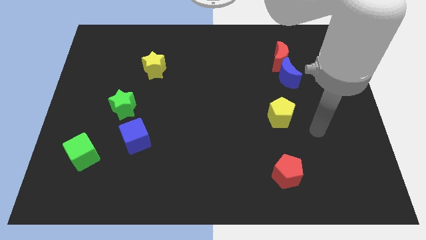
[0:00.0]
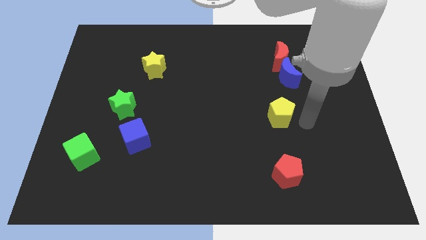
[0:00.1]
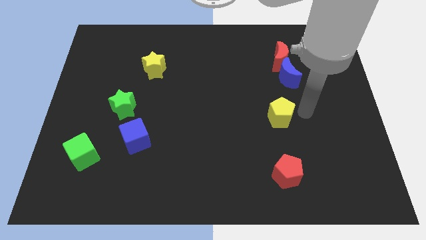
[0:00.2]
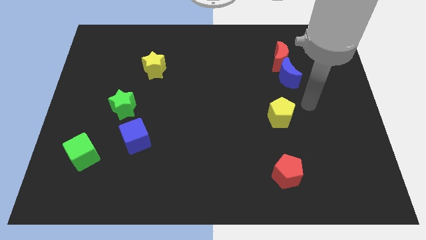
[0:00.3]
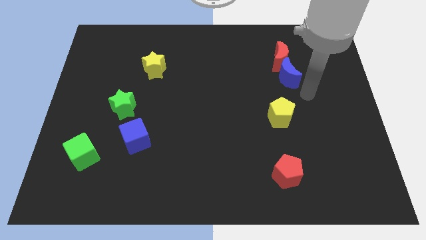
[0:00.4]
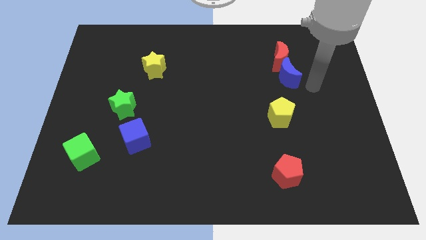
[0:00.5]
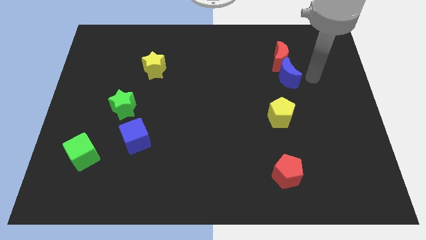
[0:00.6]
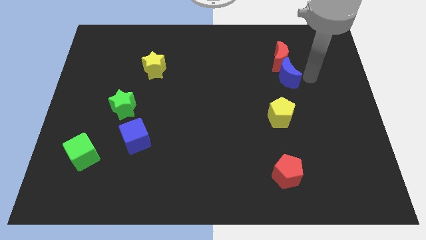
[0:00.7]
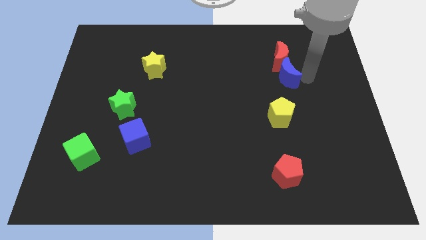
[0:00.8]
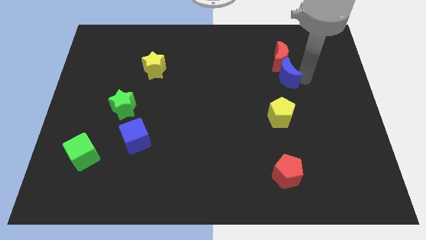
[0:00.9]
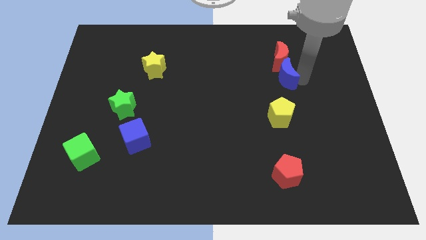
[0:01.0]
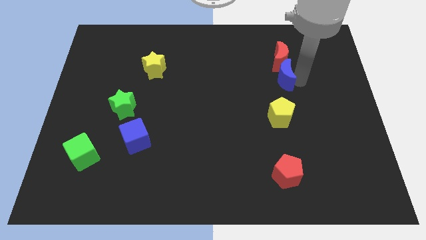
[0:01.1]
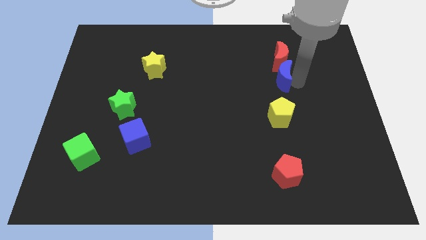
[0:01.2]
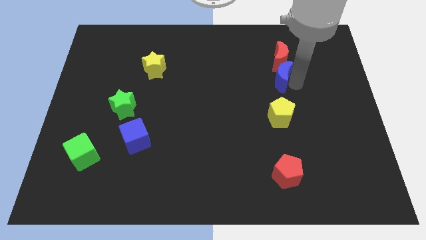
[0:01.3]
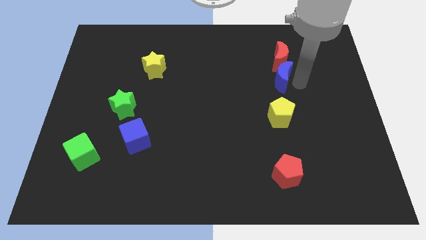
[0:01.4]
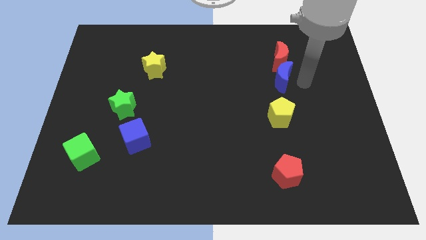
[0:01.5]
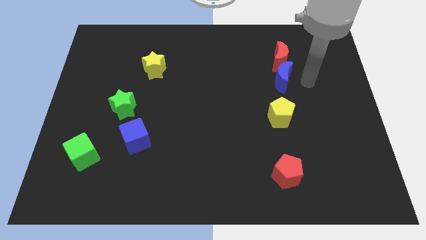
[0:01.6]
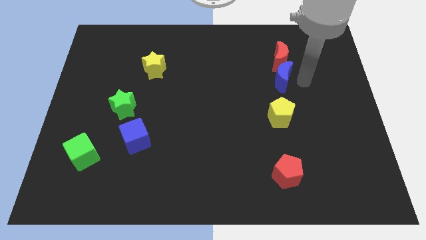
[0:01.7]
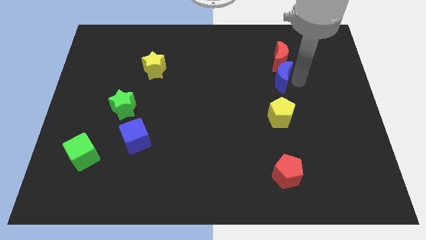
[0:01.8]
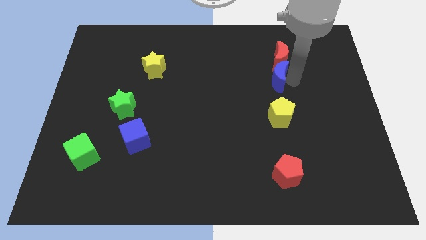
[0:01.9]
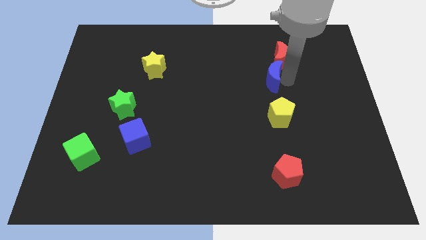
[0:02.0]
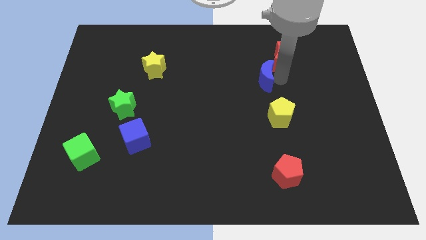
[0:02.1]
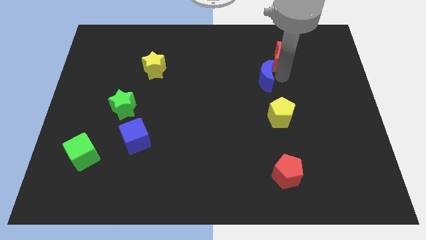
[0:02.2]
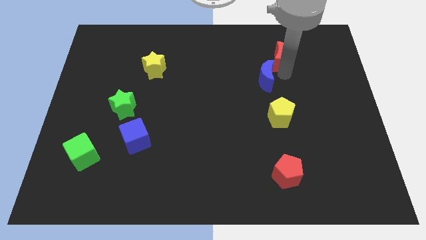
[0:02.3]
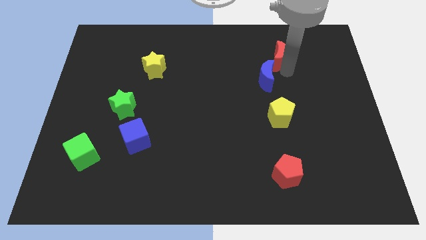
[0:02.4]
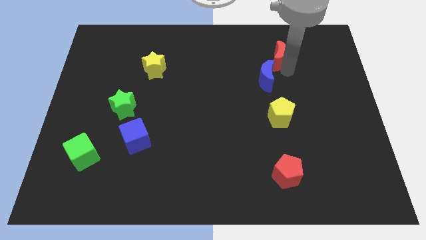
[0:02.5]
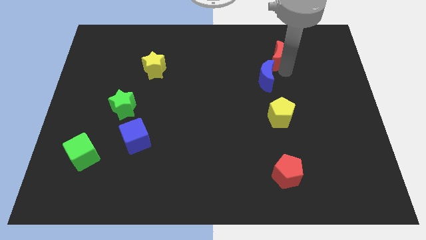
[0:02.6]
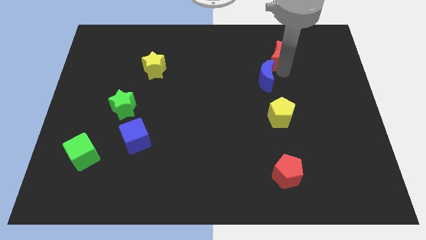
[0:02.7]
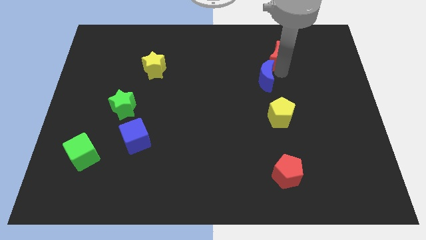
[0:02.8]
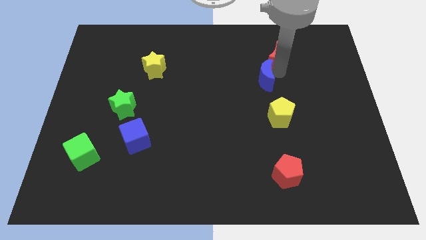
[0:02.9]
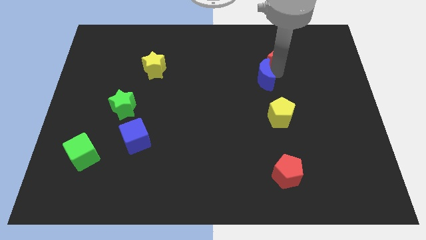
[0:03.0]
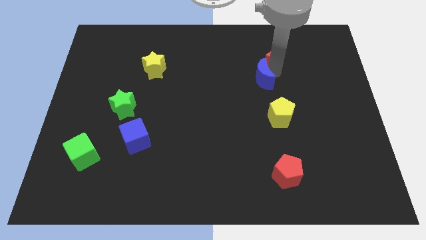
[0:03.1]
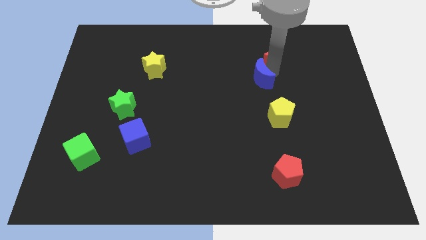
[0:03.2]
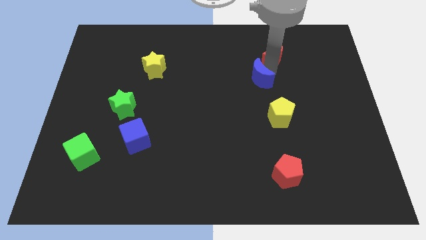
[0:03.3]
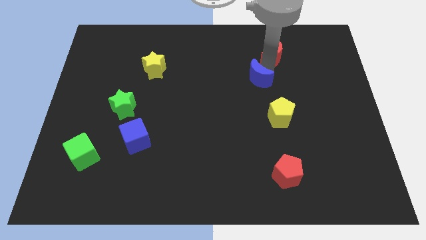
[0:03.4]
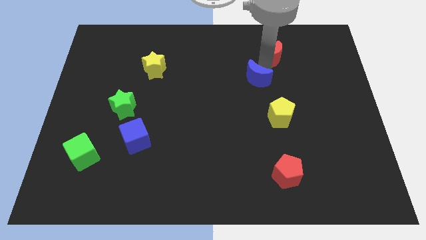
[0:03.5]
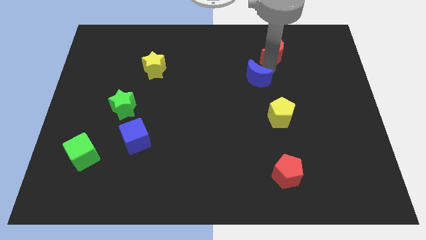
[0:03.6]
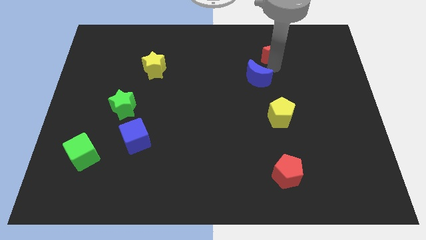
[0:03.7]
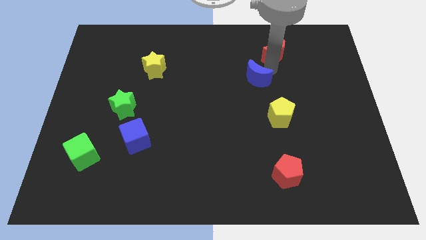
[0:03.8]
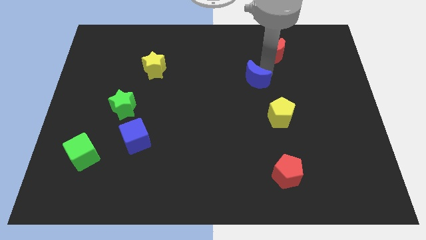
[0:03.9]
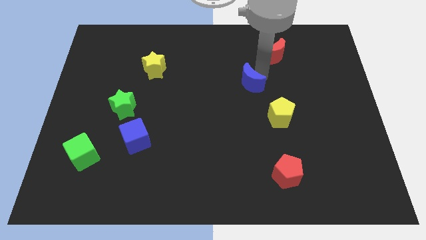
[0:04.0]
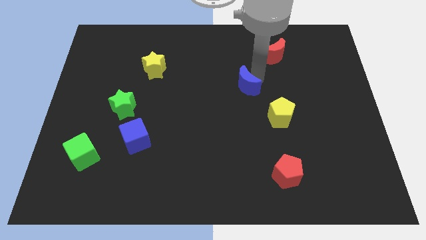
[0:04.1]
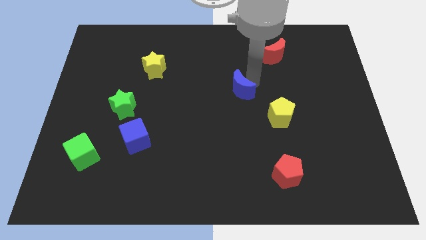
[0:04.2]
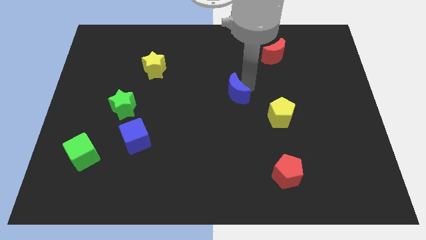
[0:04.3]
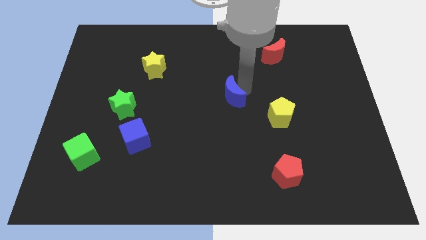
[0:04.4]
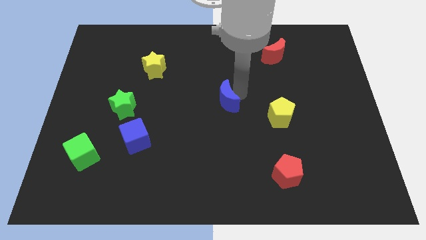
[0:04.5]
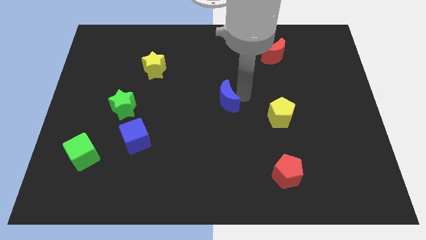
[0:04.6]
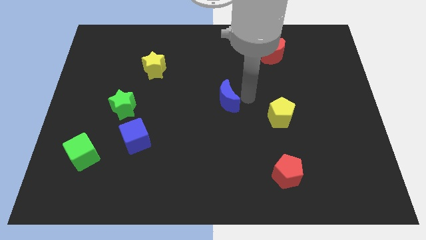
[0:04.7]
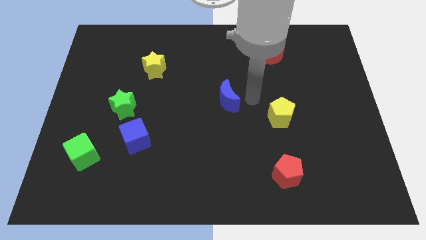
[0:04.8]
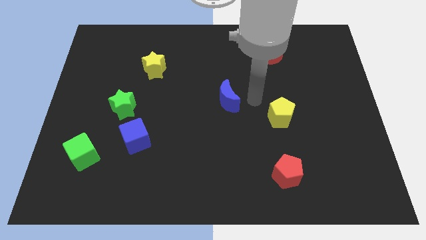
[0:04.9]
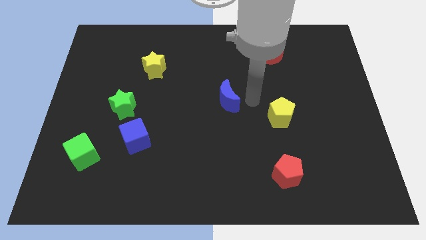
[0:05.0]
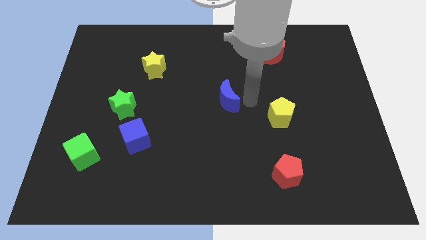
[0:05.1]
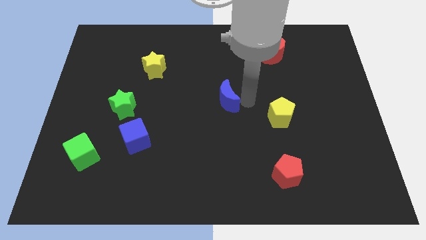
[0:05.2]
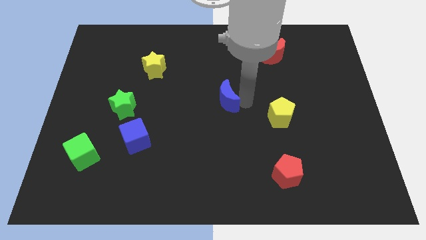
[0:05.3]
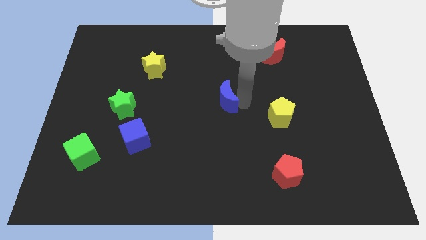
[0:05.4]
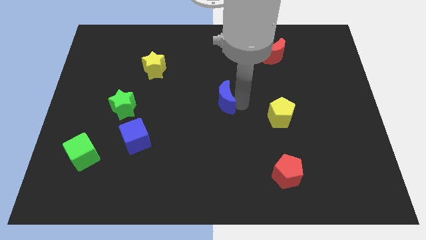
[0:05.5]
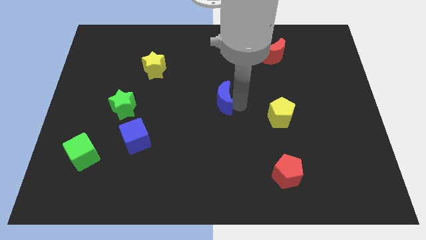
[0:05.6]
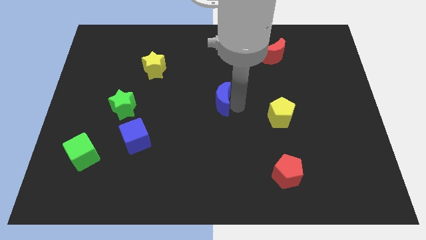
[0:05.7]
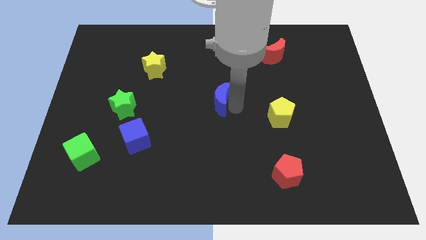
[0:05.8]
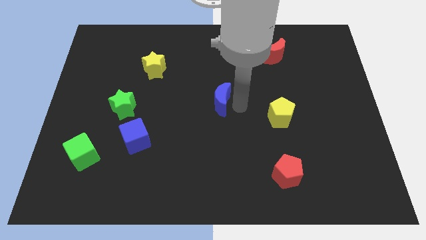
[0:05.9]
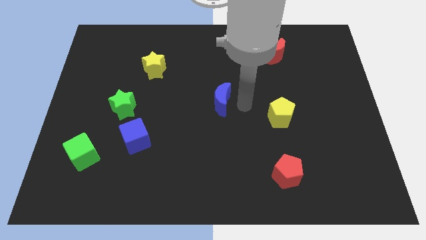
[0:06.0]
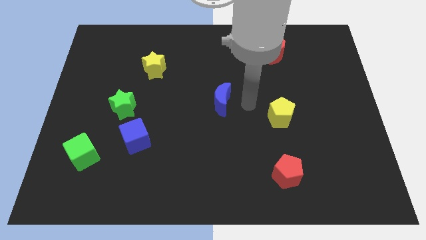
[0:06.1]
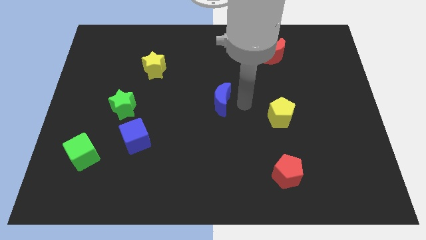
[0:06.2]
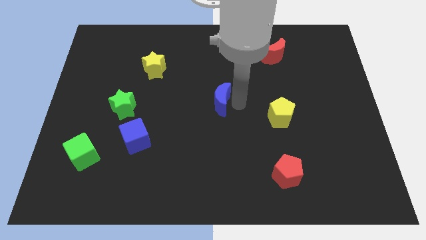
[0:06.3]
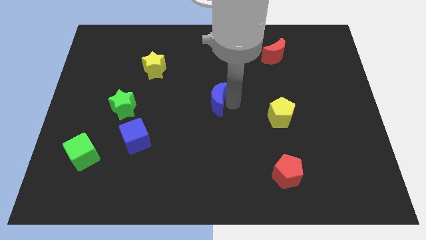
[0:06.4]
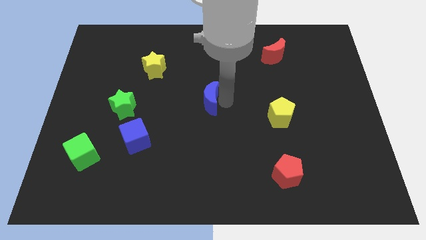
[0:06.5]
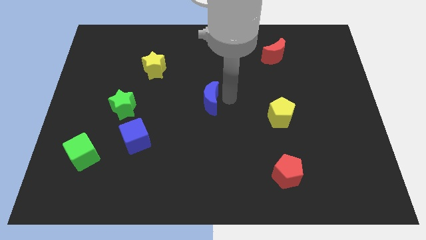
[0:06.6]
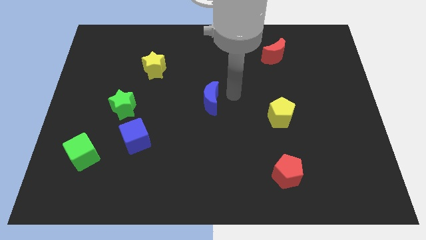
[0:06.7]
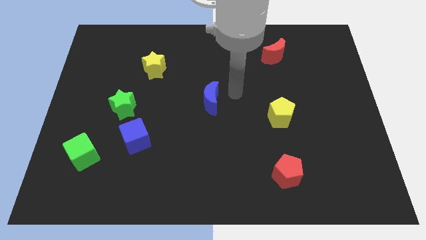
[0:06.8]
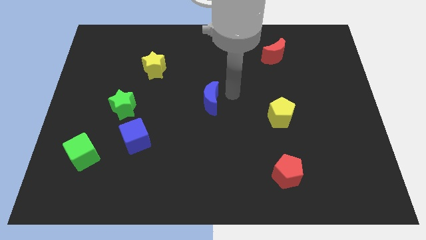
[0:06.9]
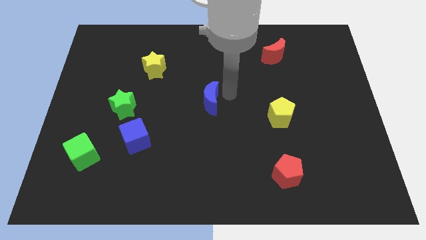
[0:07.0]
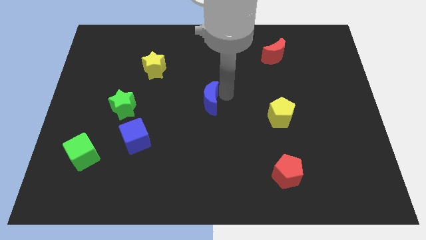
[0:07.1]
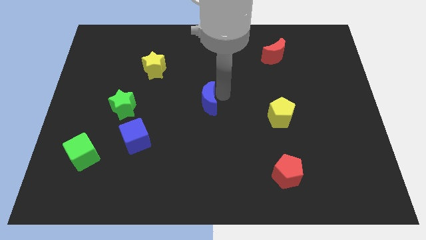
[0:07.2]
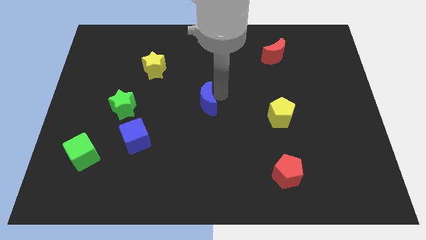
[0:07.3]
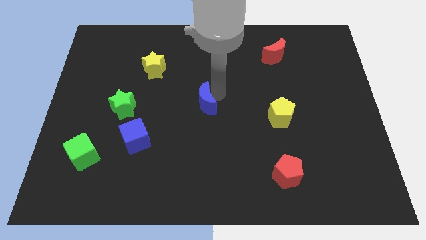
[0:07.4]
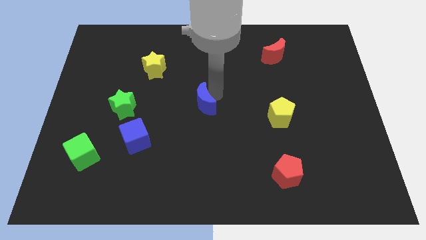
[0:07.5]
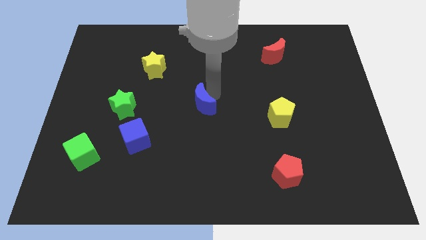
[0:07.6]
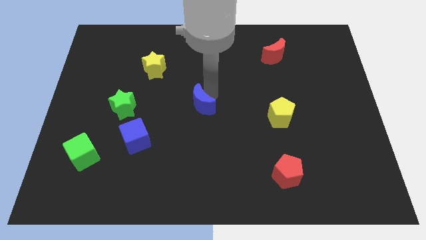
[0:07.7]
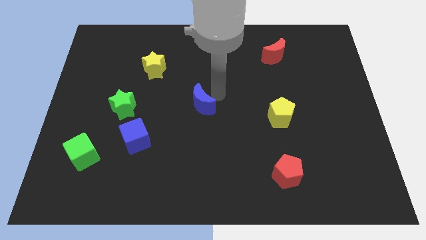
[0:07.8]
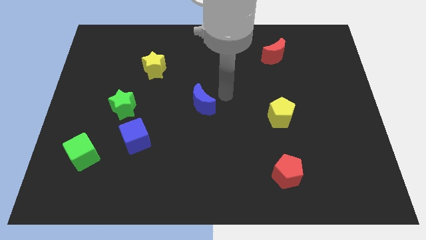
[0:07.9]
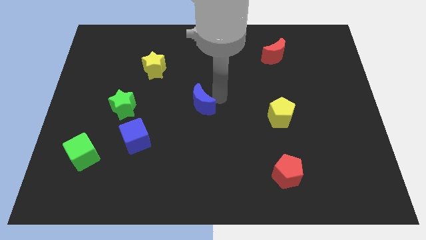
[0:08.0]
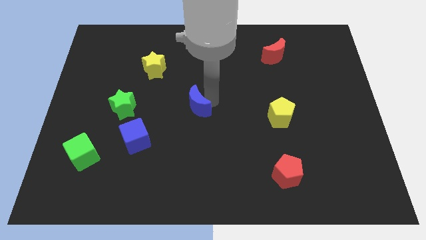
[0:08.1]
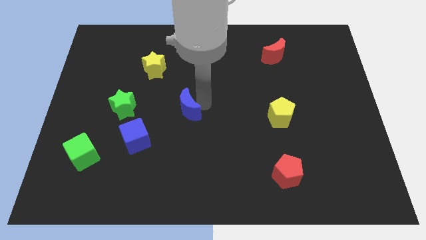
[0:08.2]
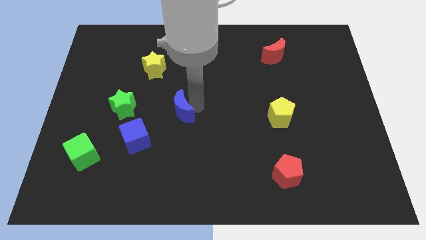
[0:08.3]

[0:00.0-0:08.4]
move the blue moon to the top right of the blue cube
